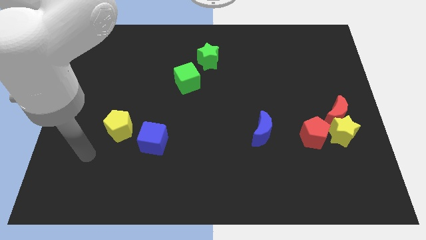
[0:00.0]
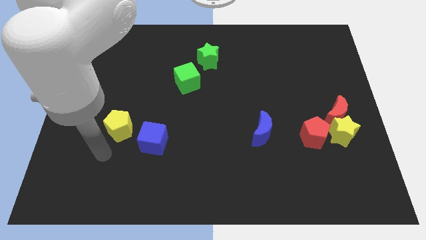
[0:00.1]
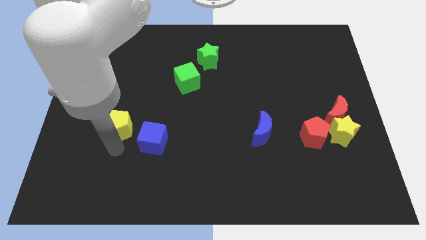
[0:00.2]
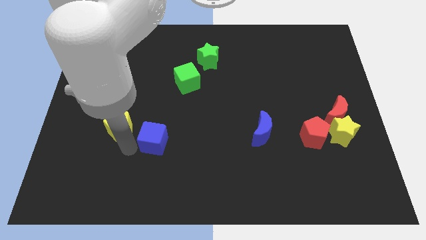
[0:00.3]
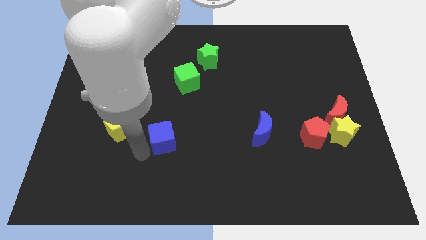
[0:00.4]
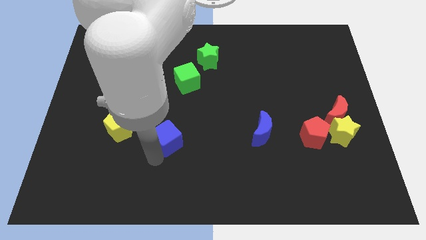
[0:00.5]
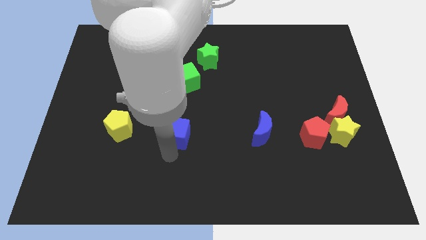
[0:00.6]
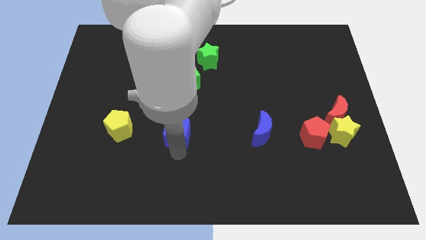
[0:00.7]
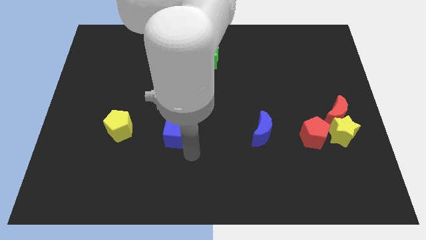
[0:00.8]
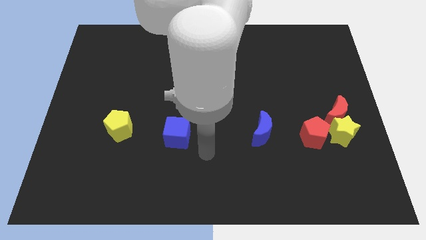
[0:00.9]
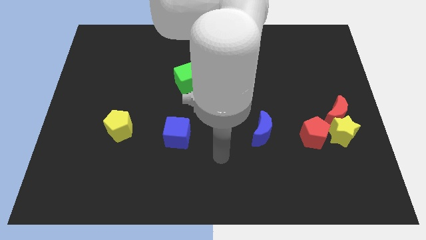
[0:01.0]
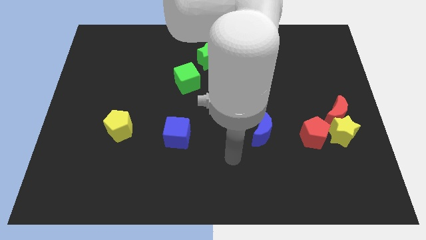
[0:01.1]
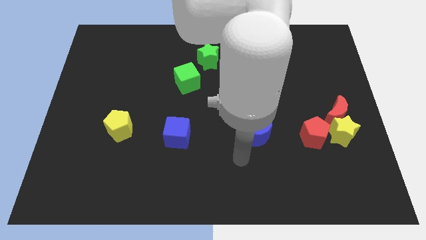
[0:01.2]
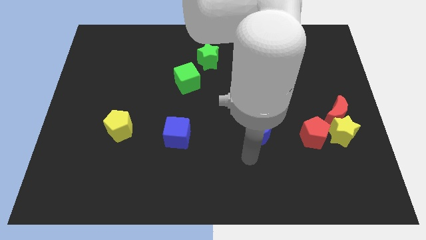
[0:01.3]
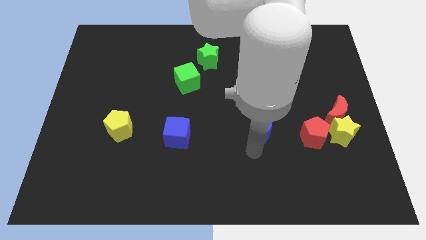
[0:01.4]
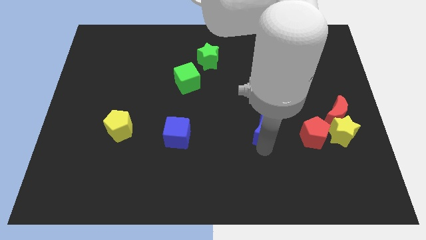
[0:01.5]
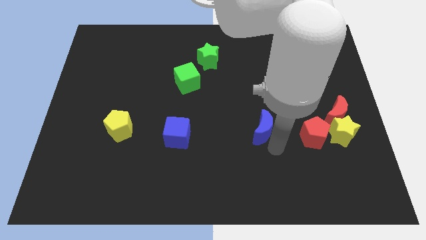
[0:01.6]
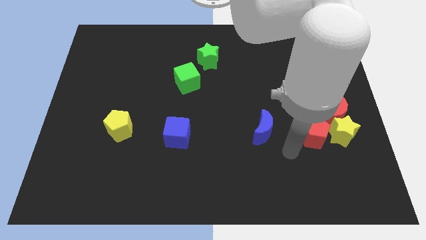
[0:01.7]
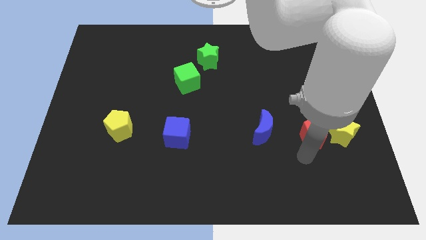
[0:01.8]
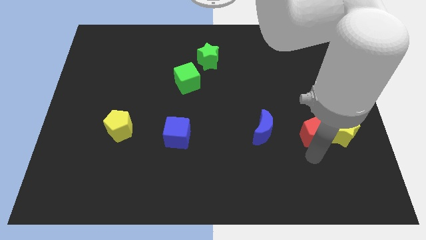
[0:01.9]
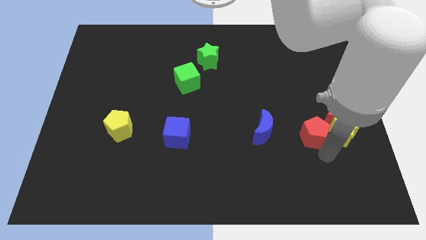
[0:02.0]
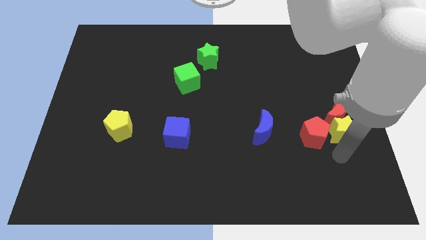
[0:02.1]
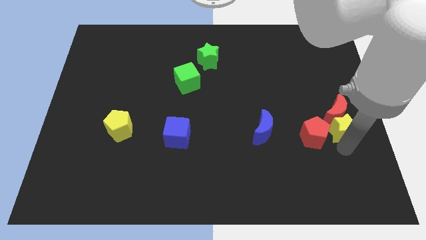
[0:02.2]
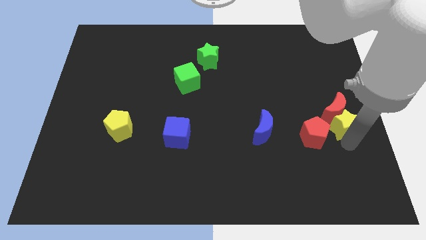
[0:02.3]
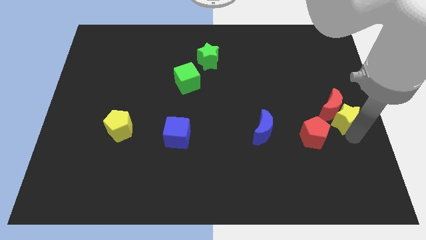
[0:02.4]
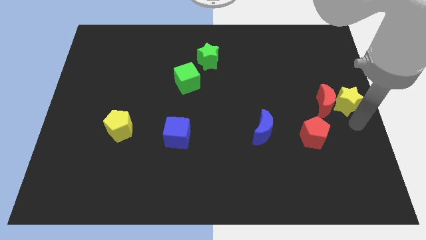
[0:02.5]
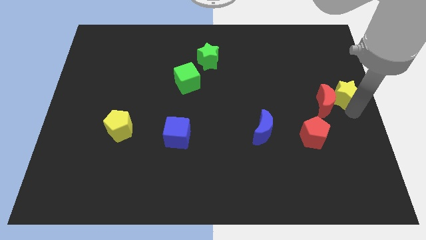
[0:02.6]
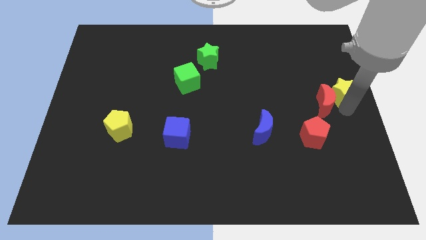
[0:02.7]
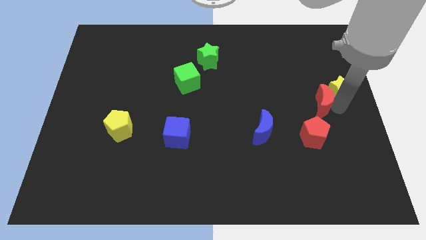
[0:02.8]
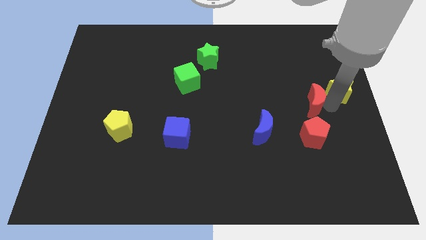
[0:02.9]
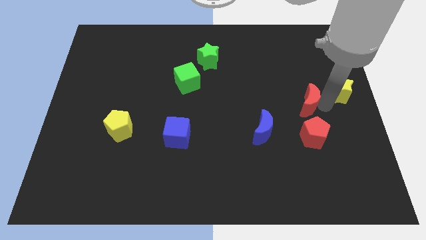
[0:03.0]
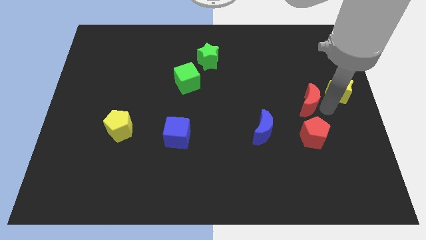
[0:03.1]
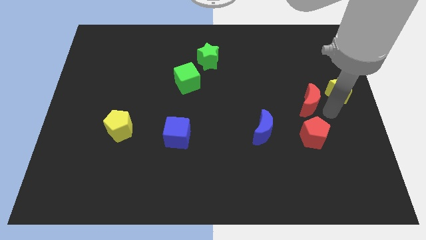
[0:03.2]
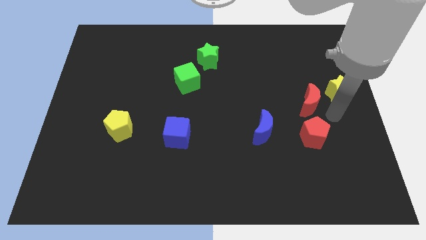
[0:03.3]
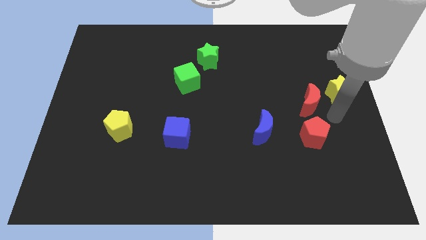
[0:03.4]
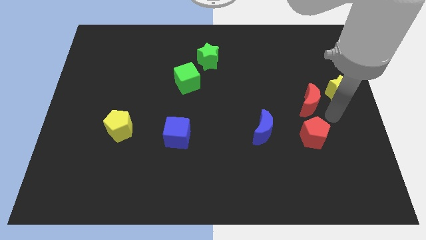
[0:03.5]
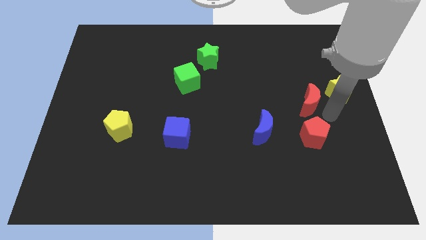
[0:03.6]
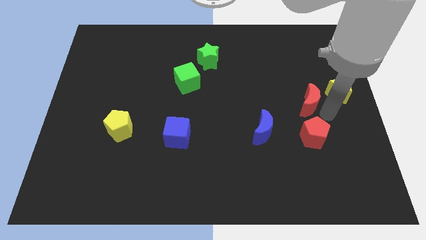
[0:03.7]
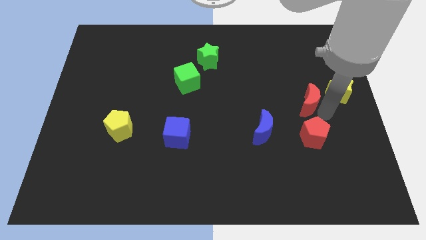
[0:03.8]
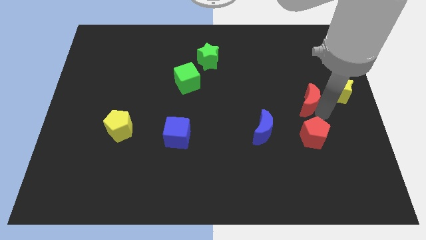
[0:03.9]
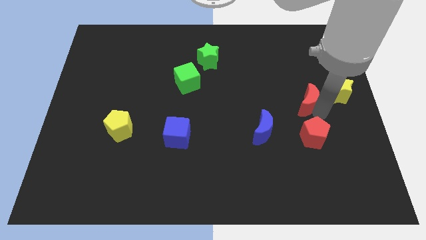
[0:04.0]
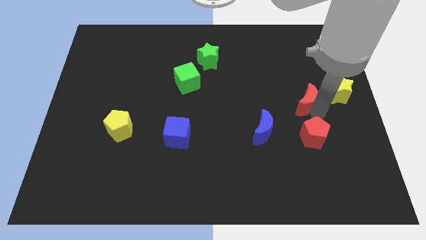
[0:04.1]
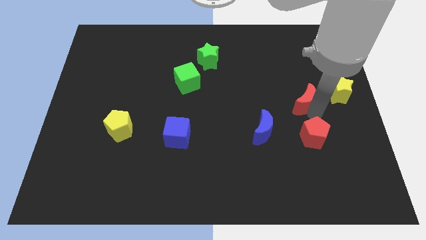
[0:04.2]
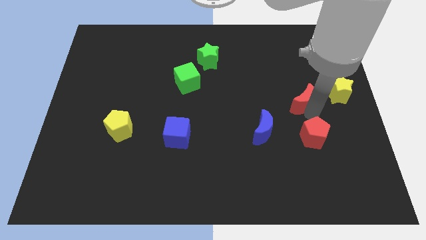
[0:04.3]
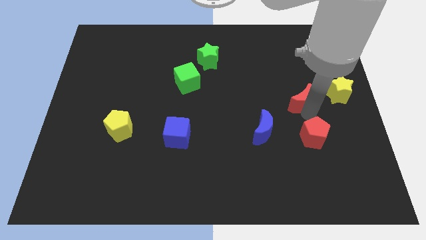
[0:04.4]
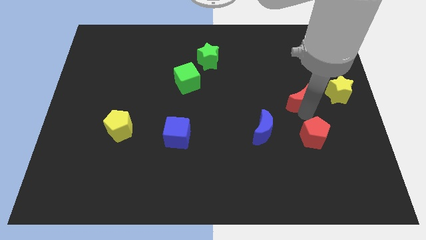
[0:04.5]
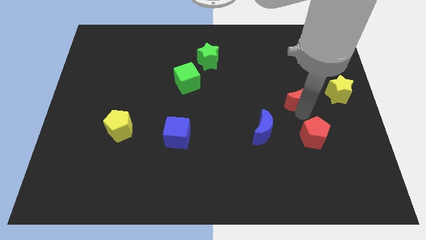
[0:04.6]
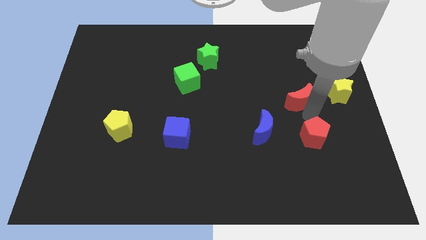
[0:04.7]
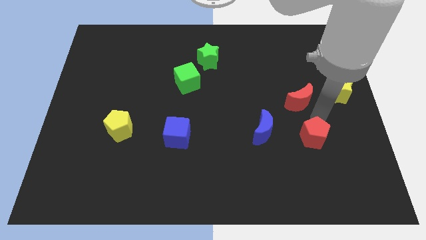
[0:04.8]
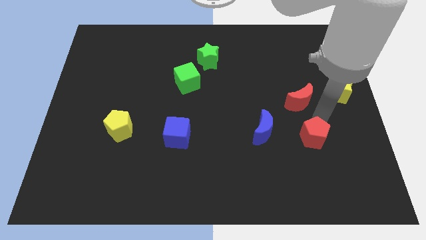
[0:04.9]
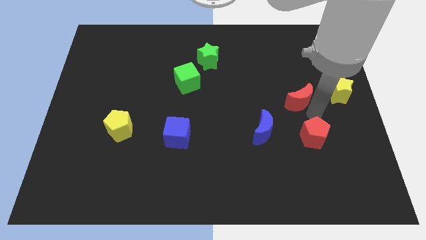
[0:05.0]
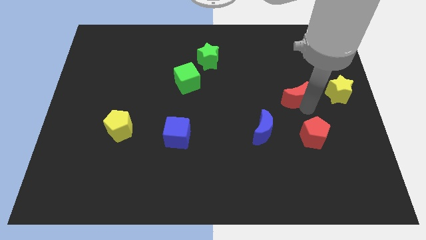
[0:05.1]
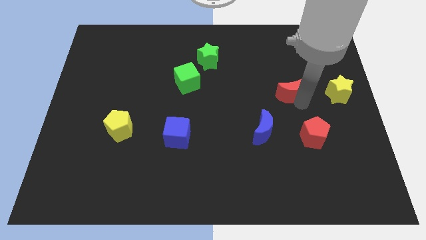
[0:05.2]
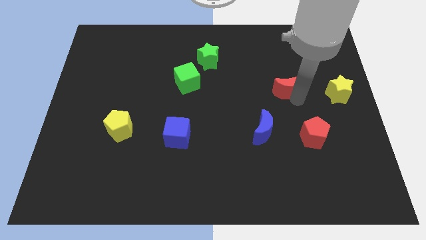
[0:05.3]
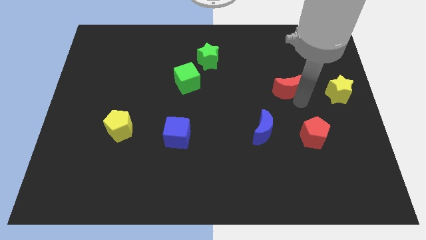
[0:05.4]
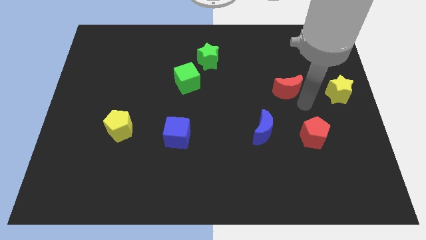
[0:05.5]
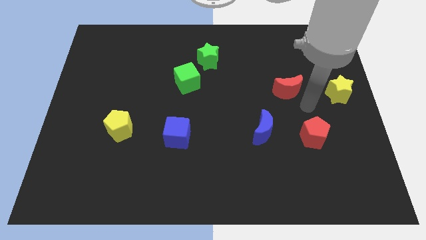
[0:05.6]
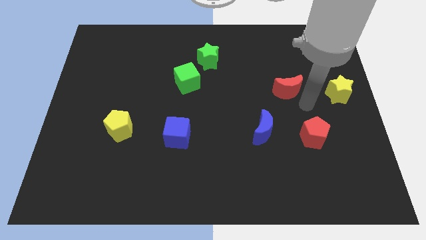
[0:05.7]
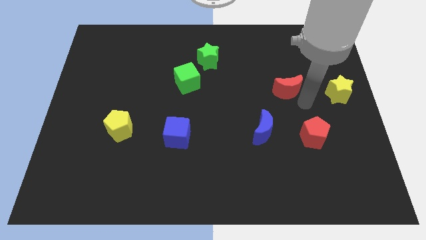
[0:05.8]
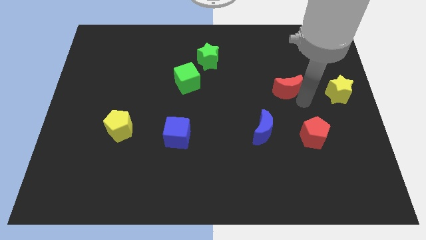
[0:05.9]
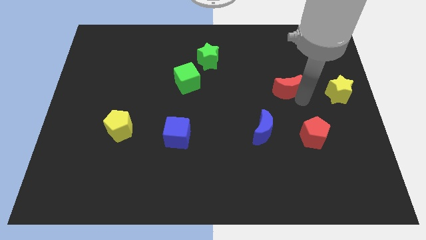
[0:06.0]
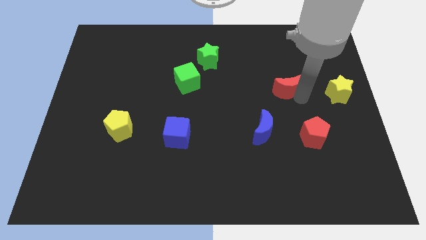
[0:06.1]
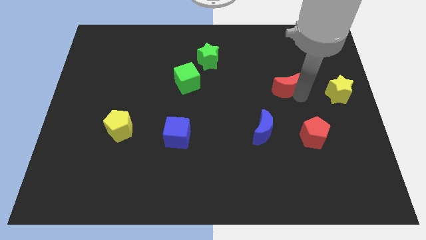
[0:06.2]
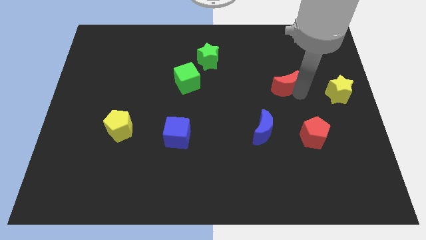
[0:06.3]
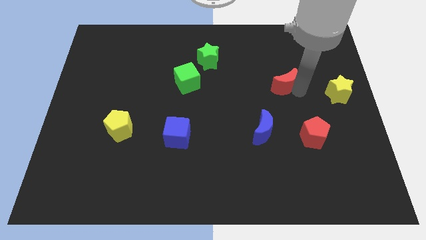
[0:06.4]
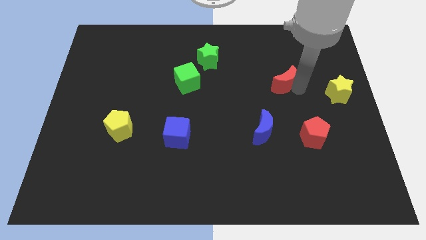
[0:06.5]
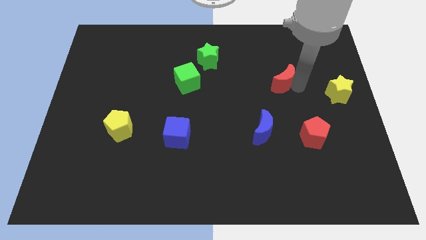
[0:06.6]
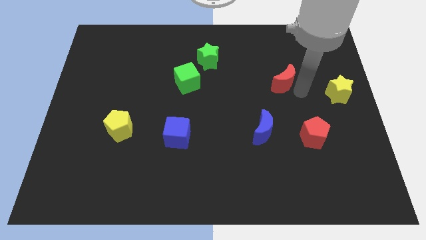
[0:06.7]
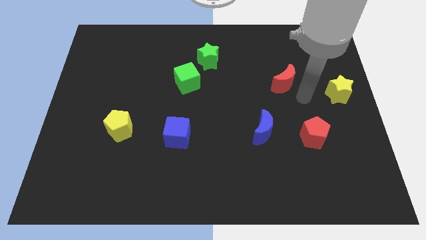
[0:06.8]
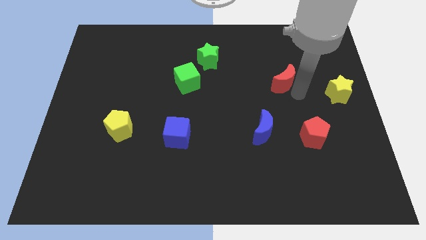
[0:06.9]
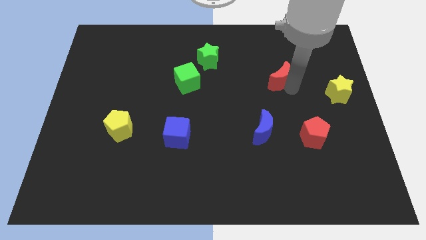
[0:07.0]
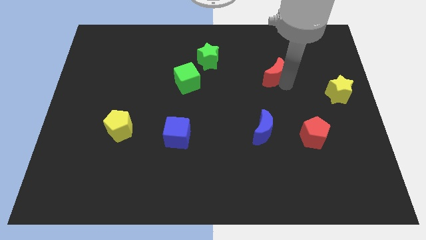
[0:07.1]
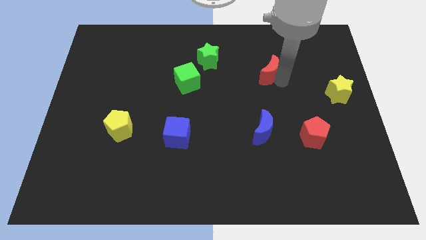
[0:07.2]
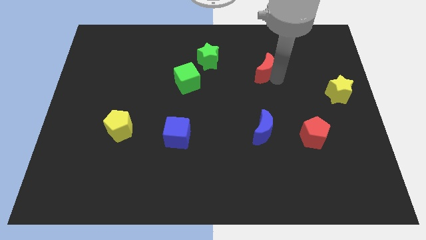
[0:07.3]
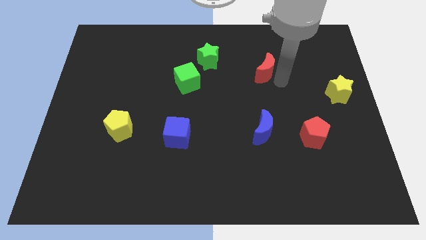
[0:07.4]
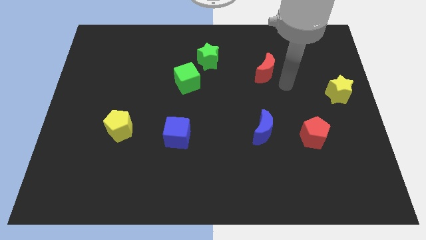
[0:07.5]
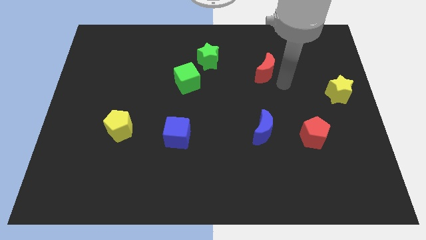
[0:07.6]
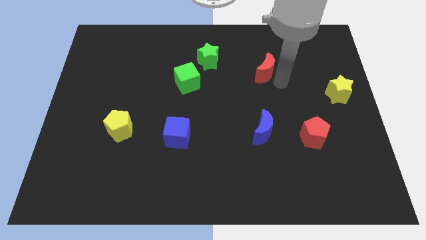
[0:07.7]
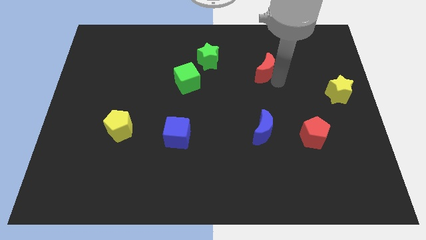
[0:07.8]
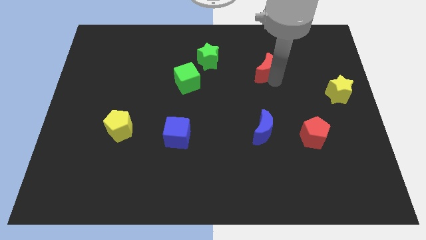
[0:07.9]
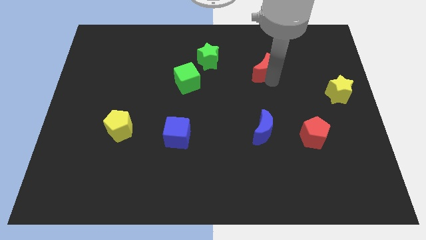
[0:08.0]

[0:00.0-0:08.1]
push the red moon just right of the green star
